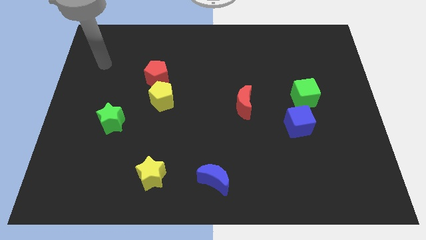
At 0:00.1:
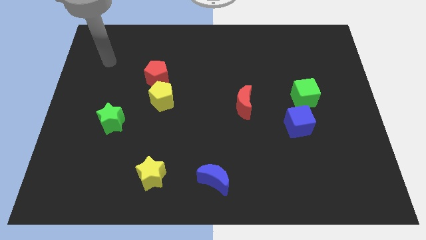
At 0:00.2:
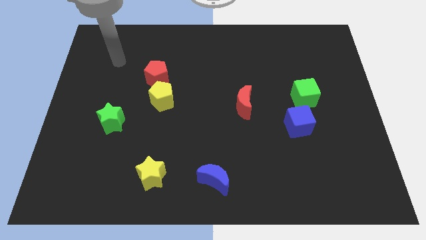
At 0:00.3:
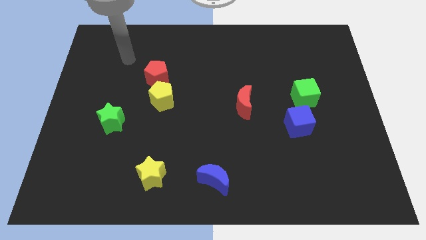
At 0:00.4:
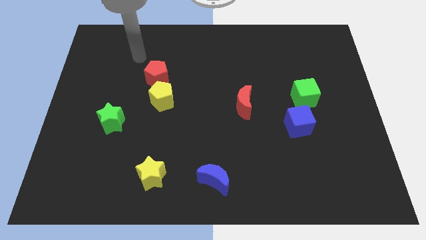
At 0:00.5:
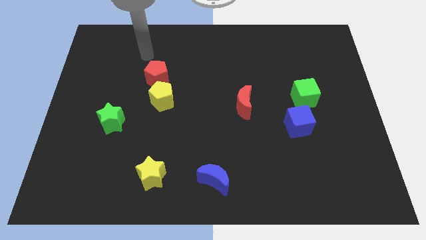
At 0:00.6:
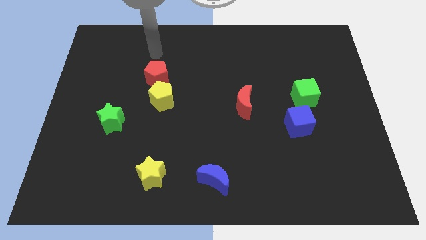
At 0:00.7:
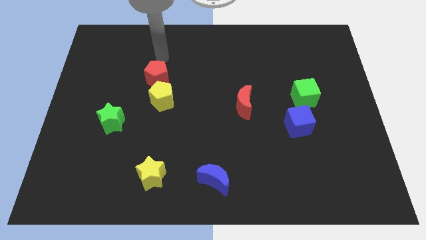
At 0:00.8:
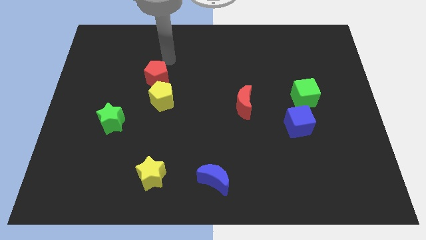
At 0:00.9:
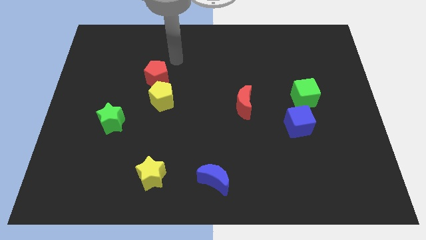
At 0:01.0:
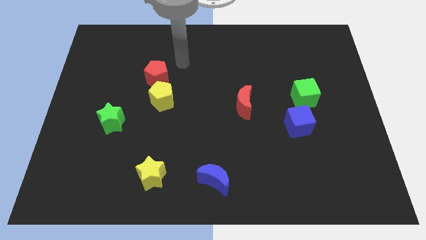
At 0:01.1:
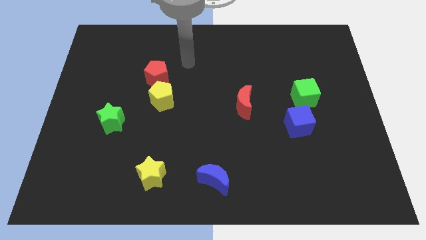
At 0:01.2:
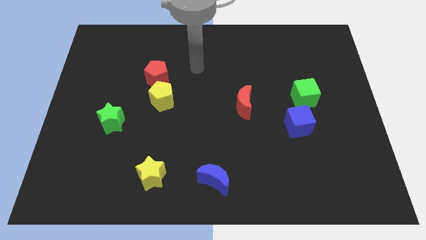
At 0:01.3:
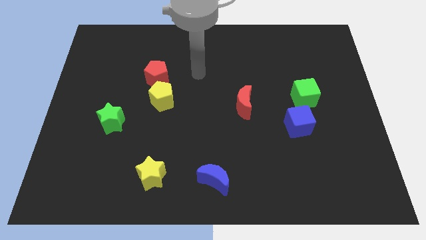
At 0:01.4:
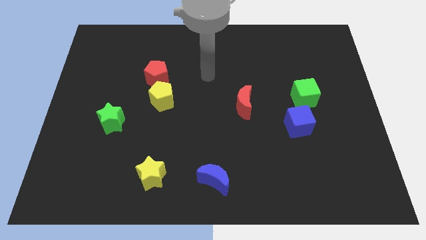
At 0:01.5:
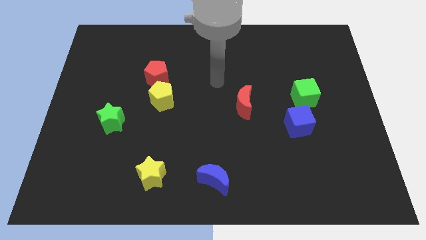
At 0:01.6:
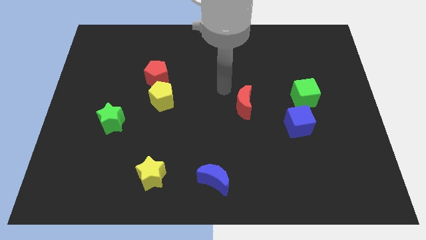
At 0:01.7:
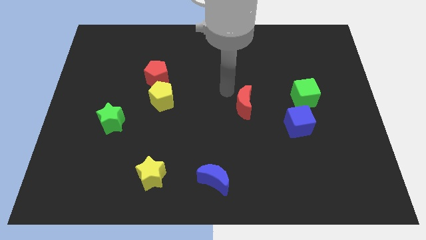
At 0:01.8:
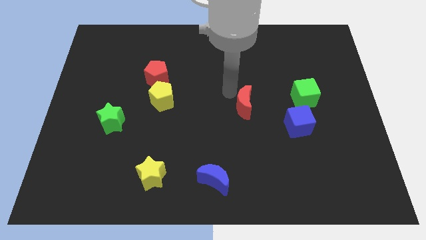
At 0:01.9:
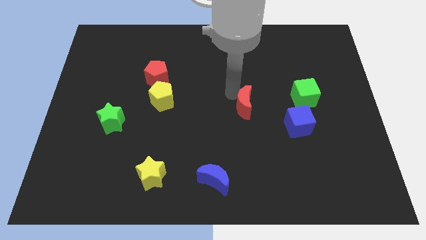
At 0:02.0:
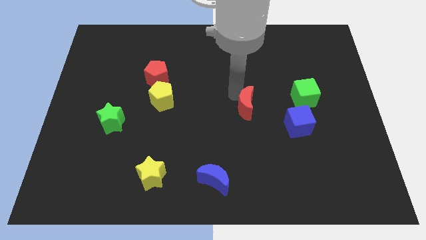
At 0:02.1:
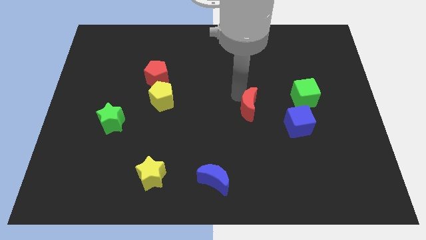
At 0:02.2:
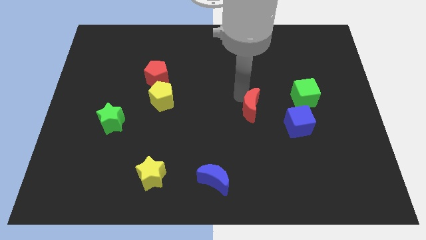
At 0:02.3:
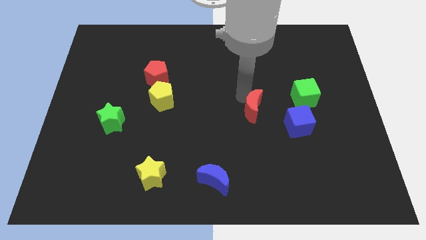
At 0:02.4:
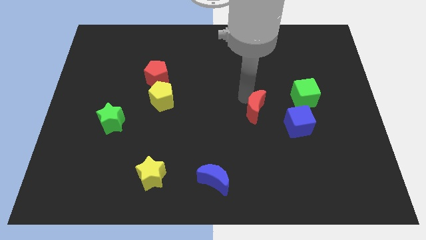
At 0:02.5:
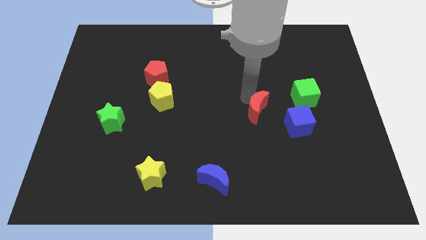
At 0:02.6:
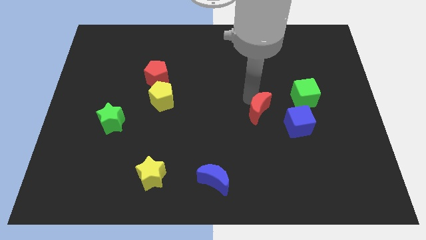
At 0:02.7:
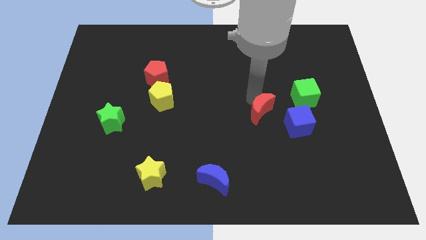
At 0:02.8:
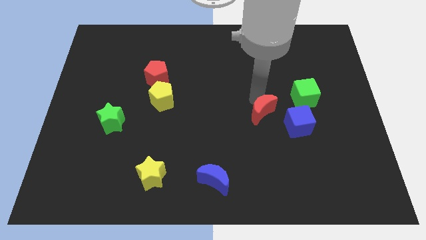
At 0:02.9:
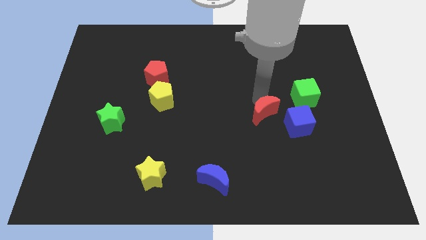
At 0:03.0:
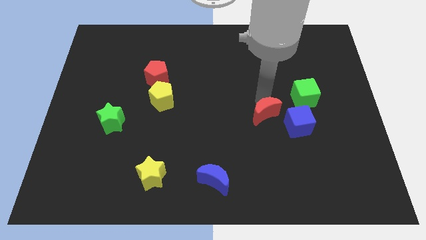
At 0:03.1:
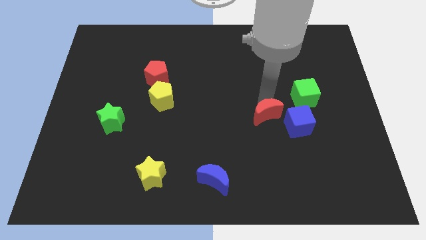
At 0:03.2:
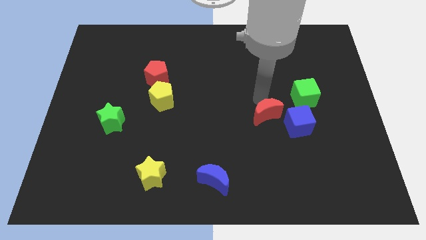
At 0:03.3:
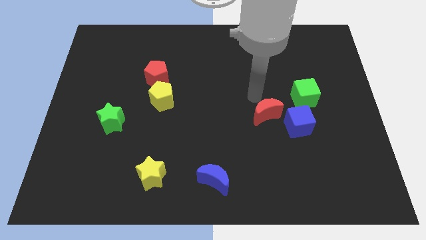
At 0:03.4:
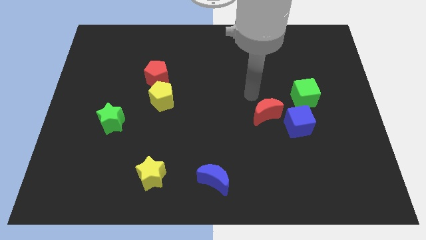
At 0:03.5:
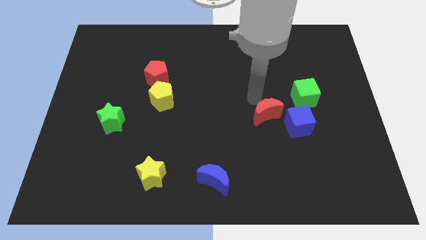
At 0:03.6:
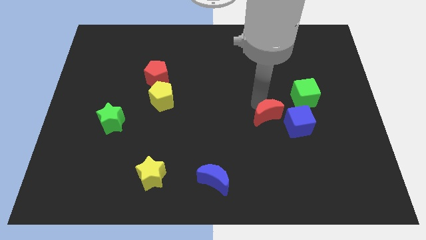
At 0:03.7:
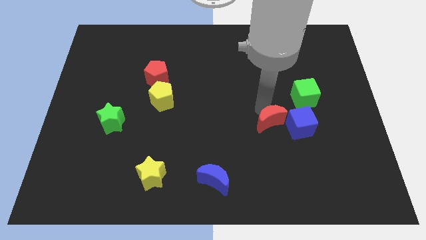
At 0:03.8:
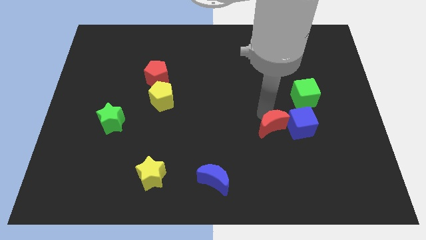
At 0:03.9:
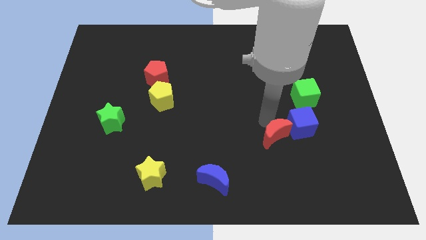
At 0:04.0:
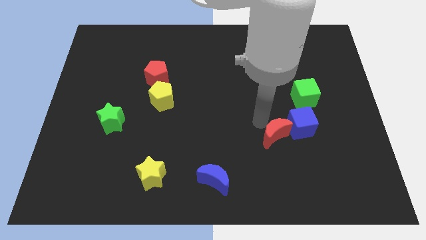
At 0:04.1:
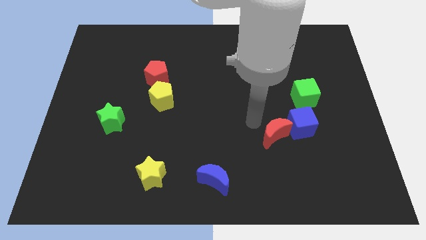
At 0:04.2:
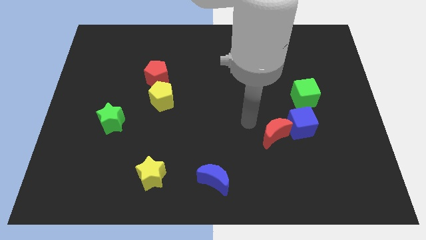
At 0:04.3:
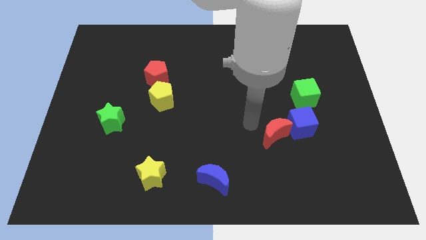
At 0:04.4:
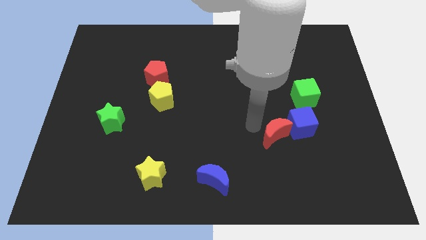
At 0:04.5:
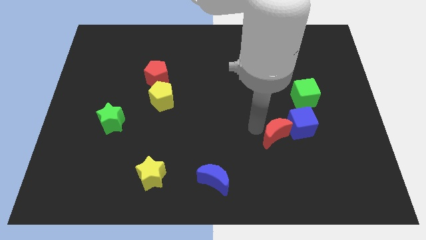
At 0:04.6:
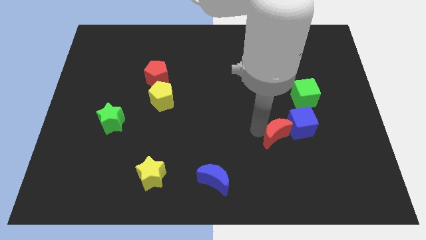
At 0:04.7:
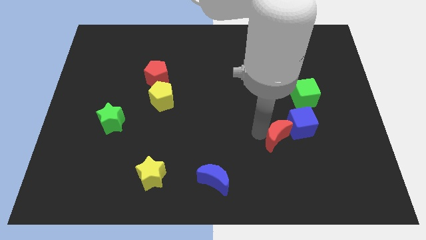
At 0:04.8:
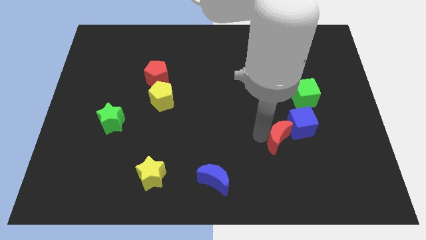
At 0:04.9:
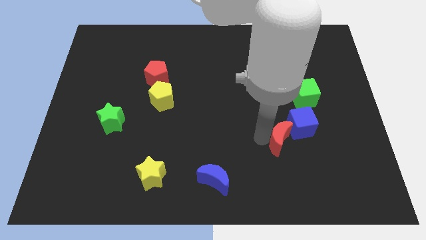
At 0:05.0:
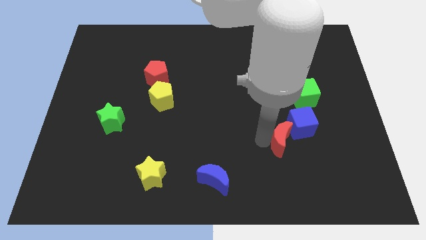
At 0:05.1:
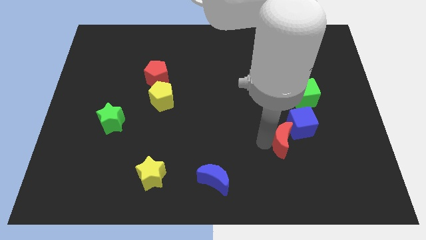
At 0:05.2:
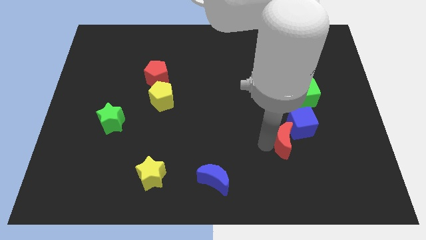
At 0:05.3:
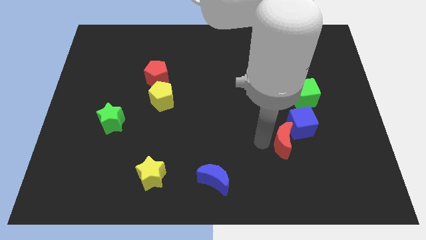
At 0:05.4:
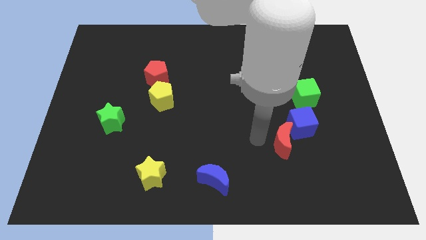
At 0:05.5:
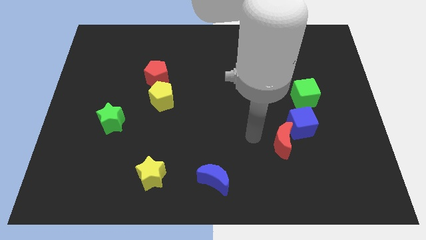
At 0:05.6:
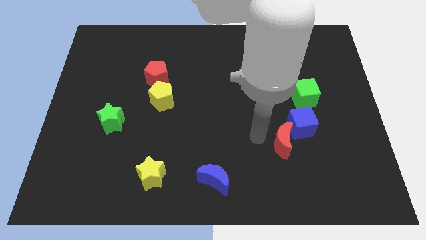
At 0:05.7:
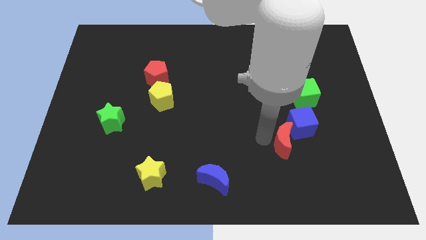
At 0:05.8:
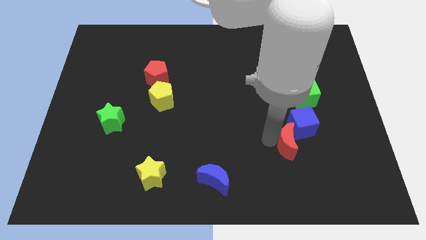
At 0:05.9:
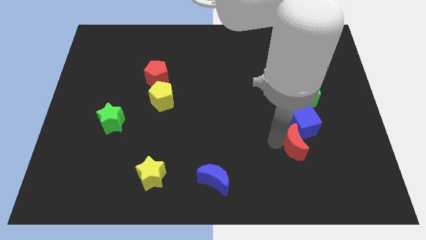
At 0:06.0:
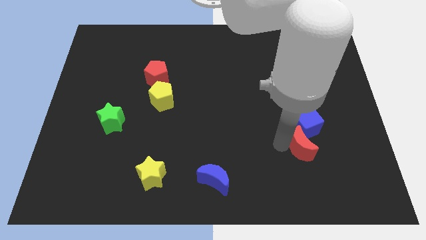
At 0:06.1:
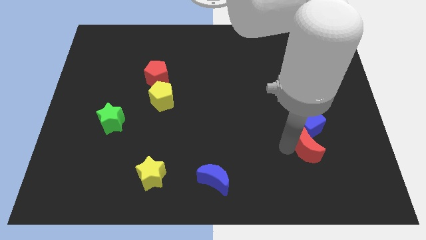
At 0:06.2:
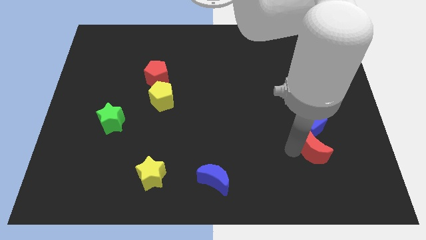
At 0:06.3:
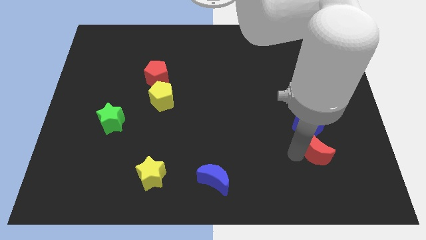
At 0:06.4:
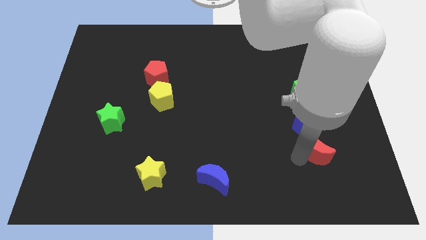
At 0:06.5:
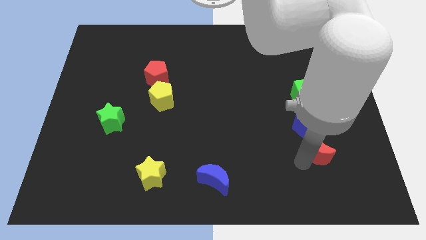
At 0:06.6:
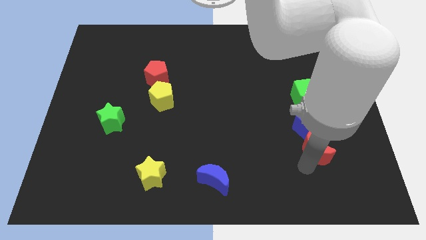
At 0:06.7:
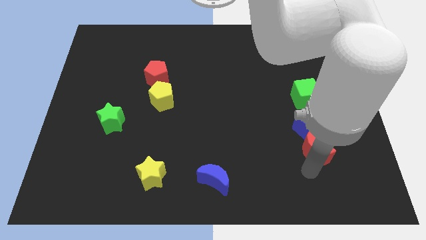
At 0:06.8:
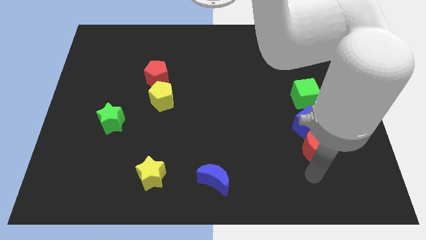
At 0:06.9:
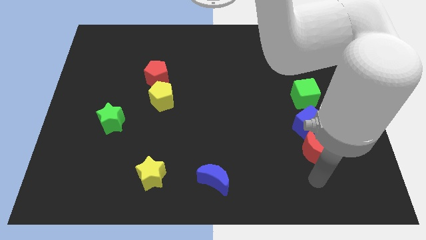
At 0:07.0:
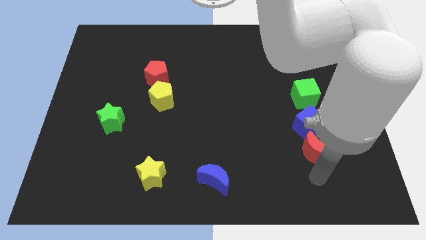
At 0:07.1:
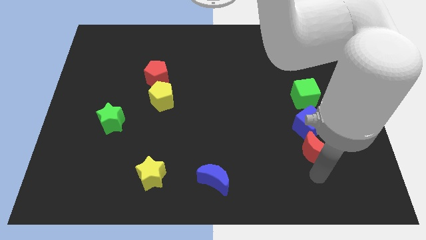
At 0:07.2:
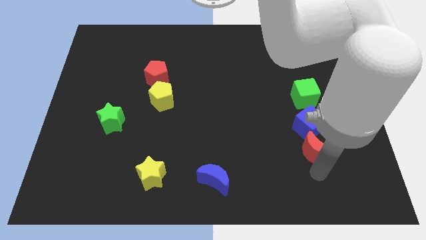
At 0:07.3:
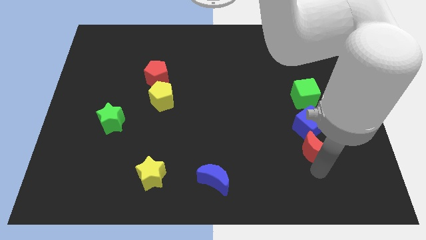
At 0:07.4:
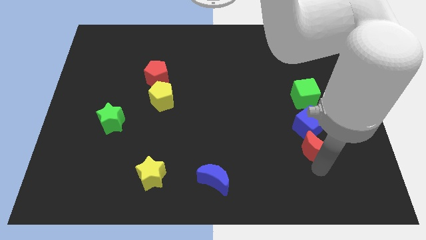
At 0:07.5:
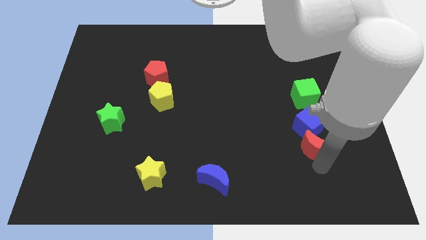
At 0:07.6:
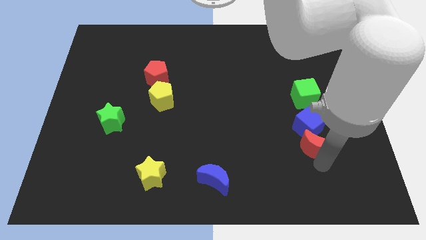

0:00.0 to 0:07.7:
slide the red moon a little bit to the right

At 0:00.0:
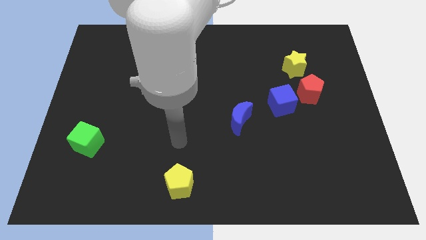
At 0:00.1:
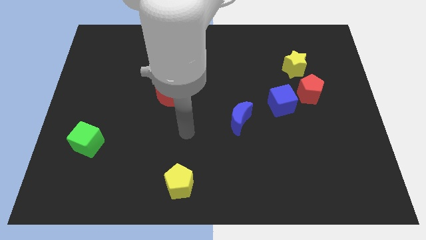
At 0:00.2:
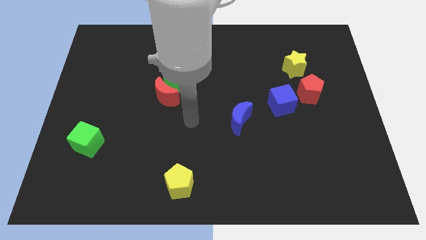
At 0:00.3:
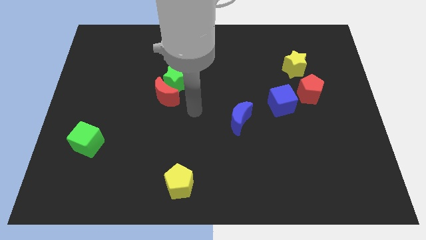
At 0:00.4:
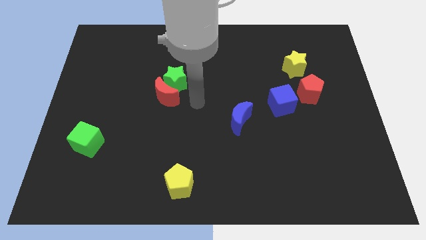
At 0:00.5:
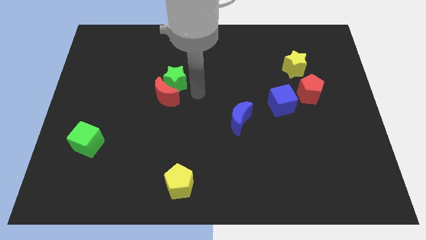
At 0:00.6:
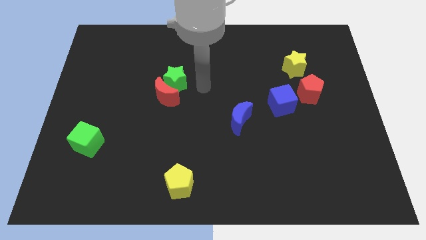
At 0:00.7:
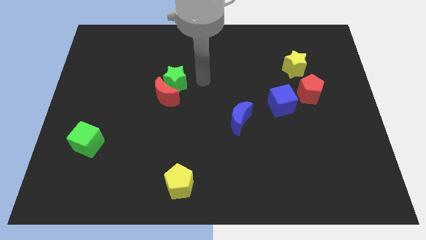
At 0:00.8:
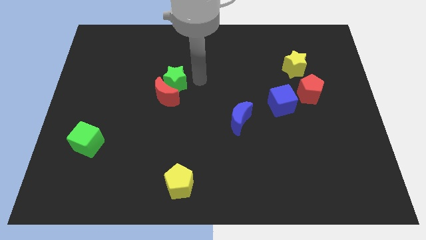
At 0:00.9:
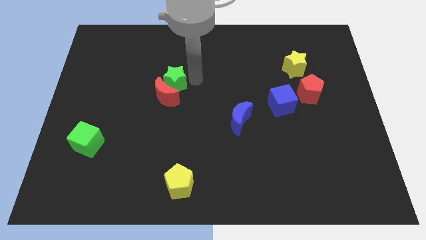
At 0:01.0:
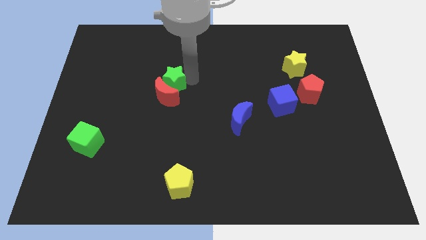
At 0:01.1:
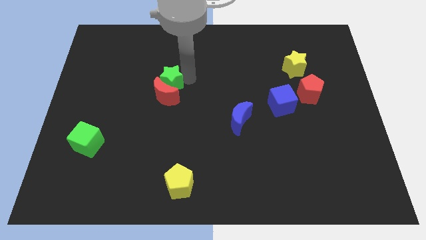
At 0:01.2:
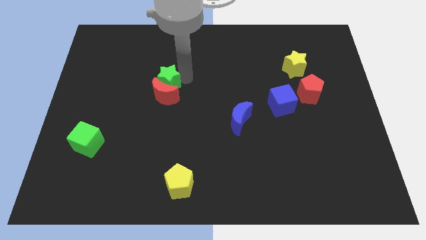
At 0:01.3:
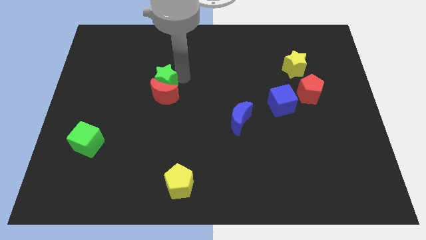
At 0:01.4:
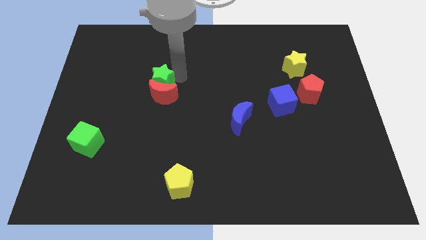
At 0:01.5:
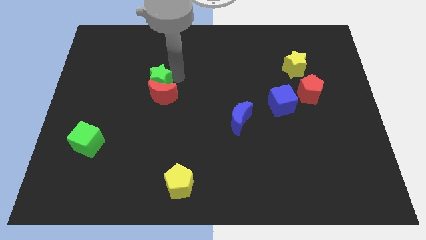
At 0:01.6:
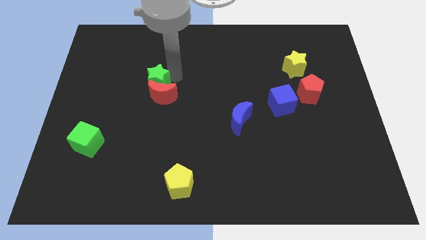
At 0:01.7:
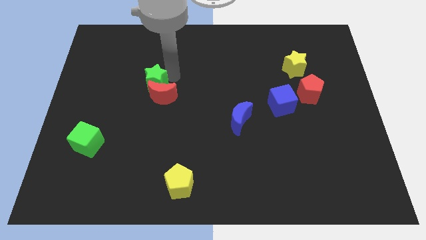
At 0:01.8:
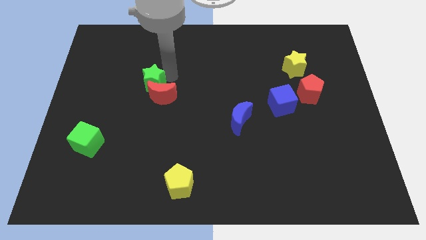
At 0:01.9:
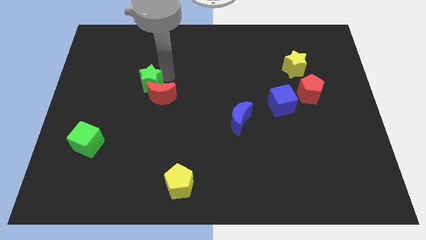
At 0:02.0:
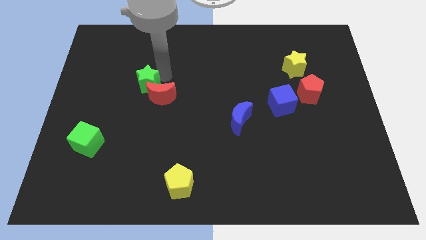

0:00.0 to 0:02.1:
move the green star somewhat left
